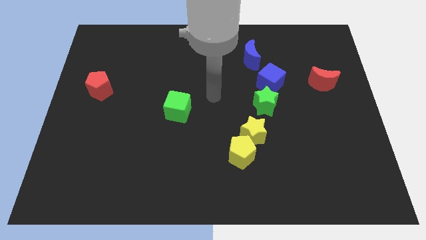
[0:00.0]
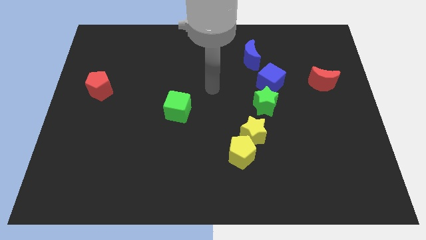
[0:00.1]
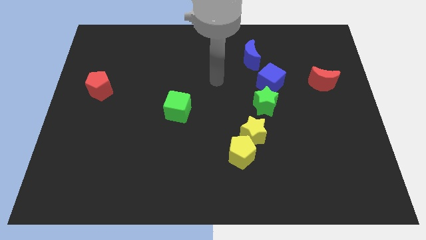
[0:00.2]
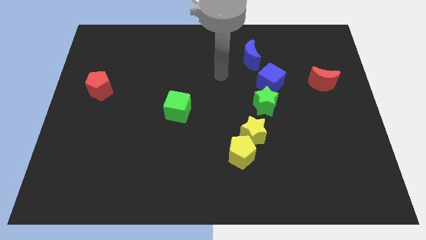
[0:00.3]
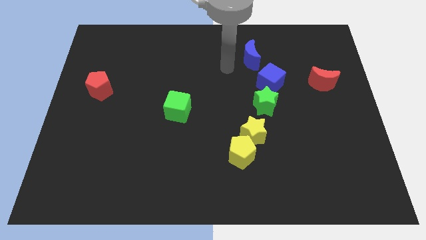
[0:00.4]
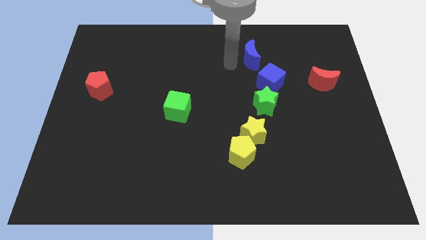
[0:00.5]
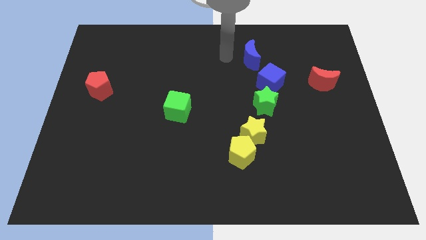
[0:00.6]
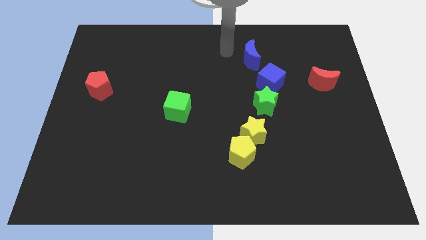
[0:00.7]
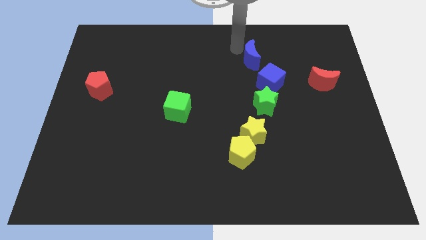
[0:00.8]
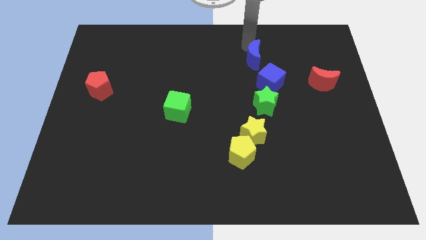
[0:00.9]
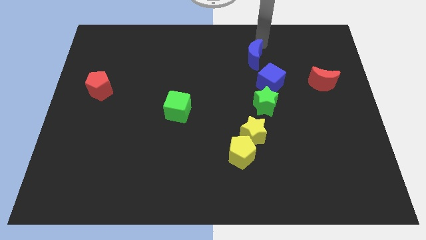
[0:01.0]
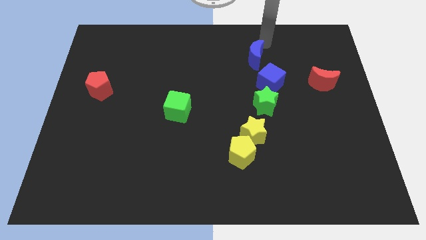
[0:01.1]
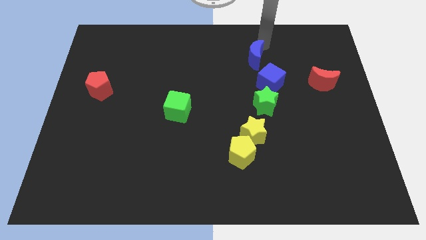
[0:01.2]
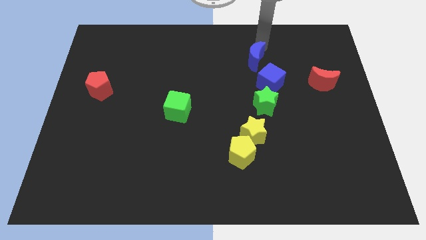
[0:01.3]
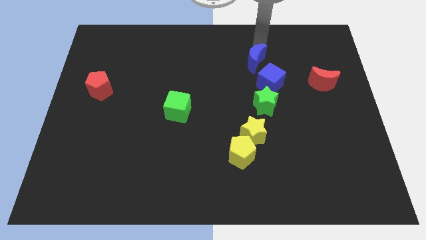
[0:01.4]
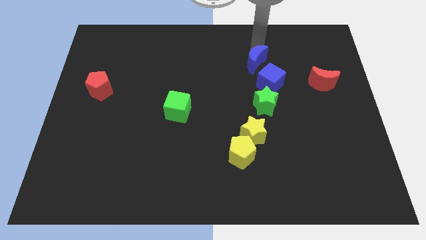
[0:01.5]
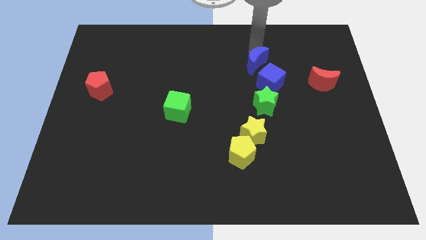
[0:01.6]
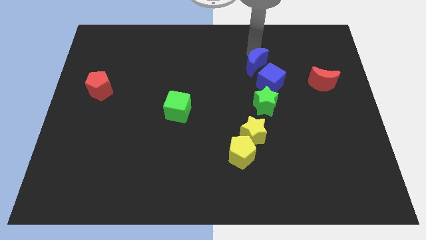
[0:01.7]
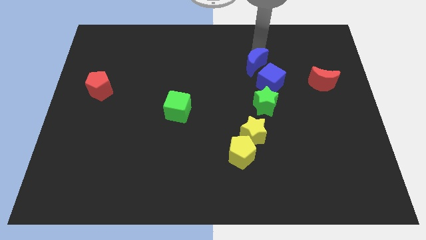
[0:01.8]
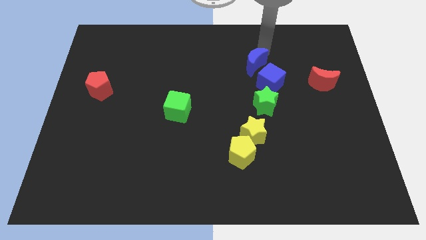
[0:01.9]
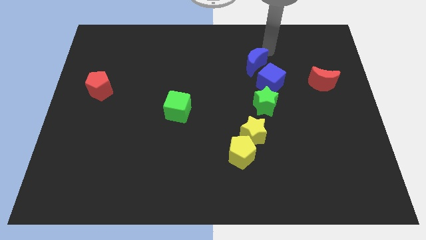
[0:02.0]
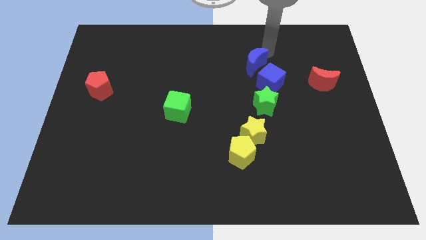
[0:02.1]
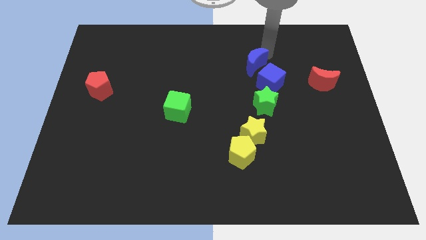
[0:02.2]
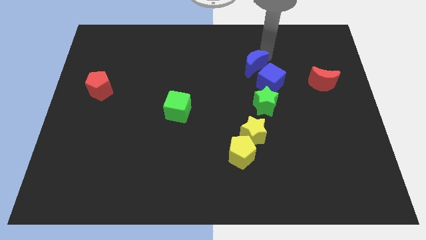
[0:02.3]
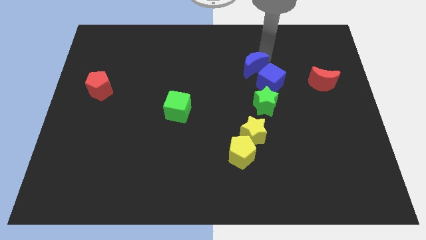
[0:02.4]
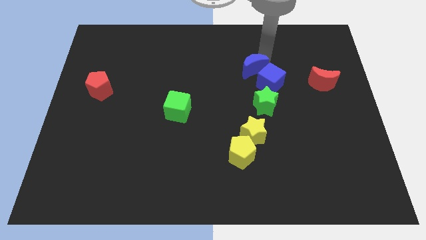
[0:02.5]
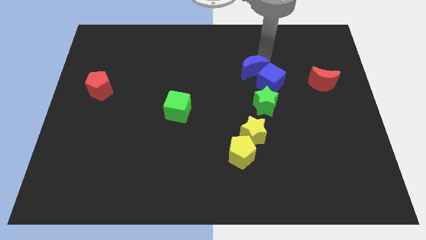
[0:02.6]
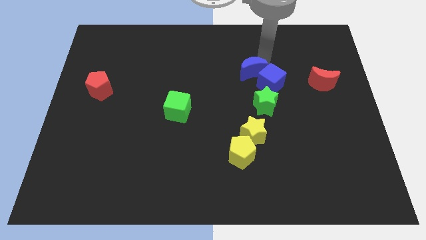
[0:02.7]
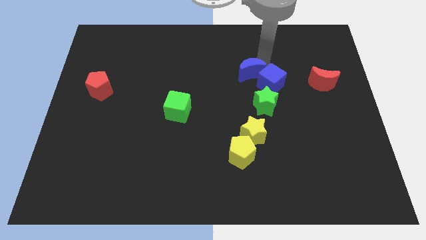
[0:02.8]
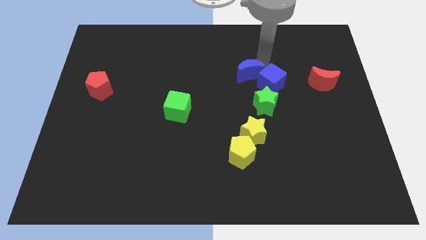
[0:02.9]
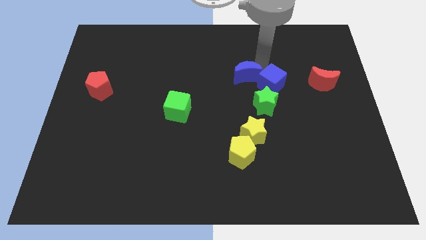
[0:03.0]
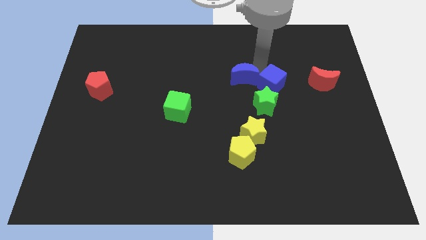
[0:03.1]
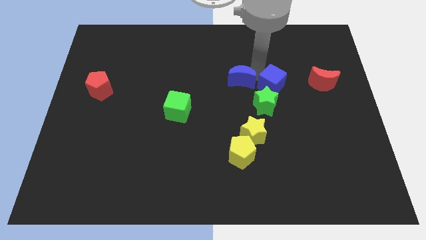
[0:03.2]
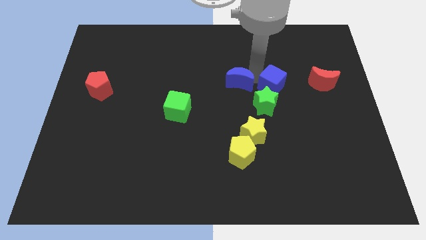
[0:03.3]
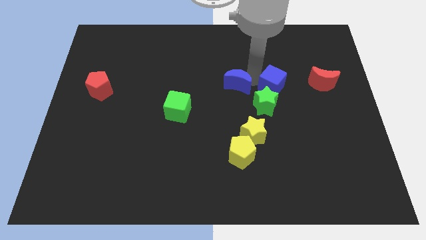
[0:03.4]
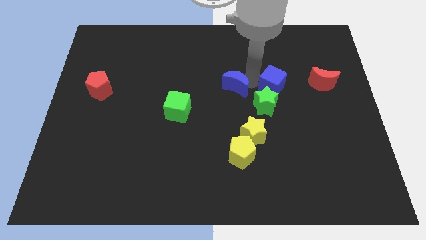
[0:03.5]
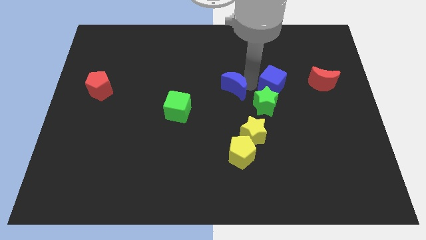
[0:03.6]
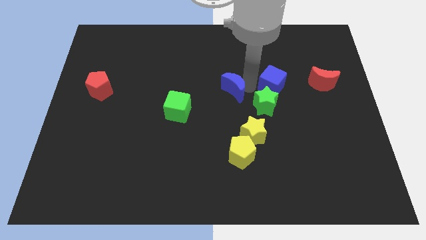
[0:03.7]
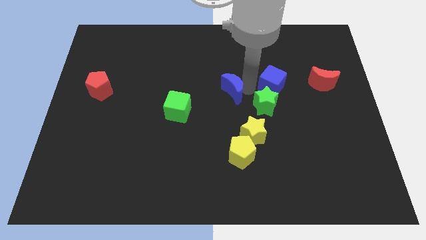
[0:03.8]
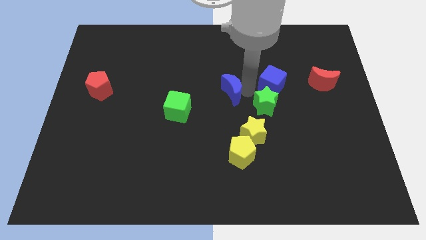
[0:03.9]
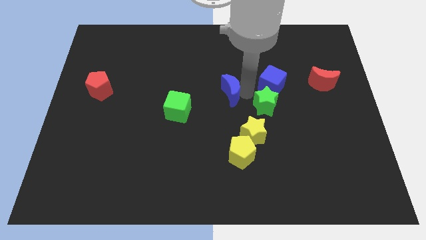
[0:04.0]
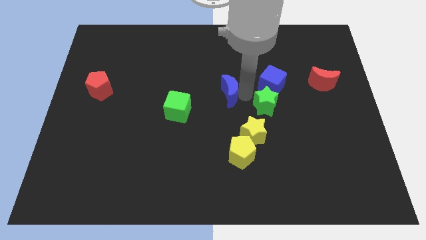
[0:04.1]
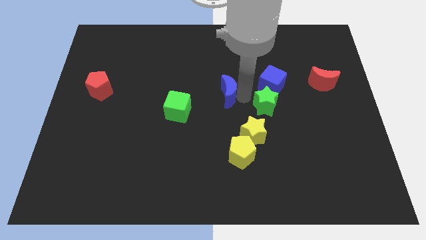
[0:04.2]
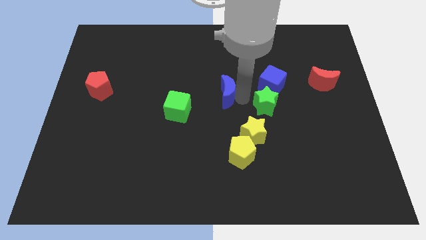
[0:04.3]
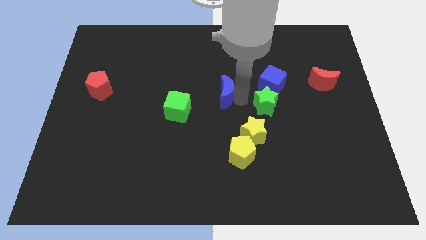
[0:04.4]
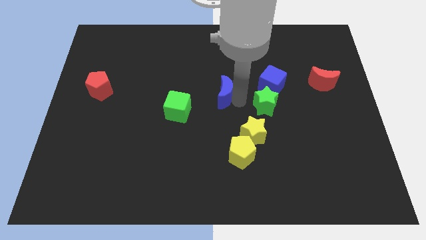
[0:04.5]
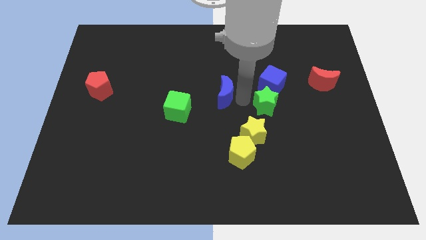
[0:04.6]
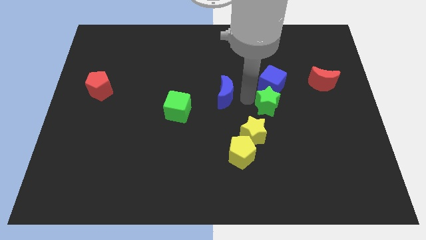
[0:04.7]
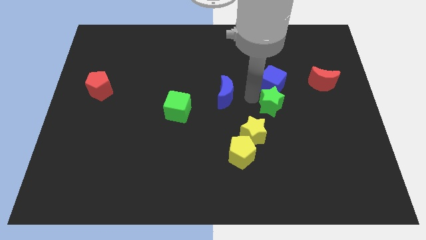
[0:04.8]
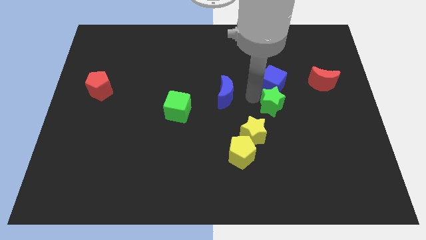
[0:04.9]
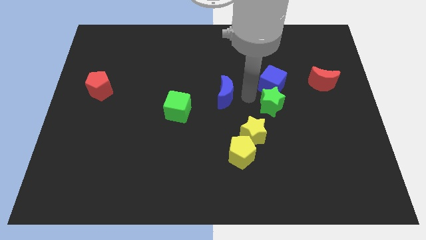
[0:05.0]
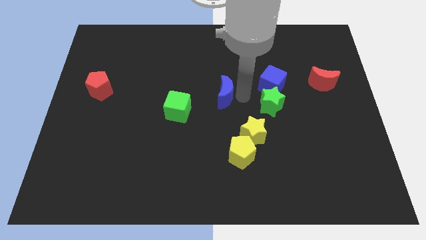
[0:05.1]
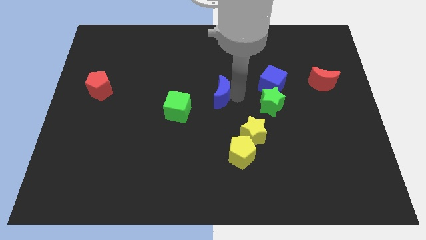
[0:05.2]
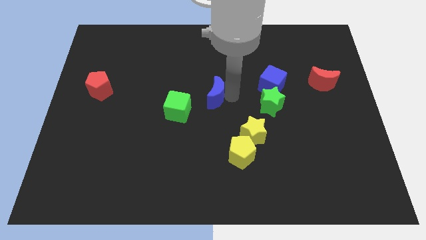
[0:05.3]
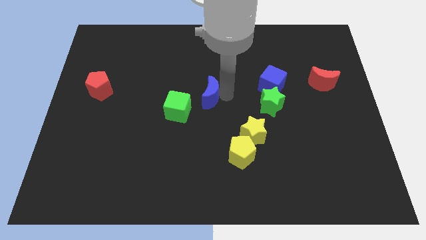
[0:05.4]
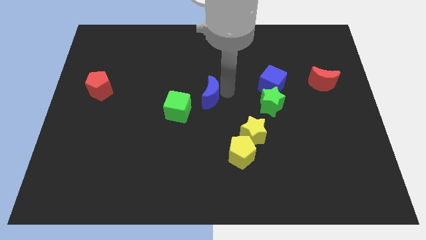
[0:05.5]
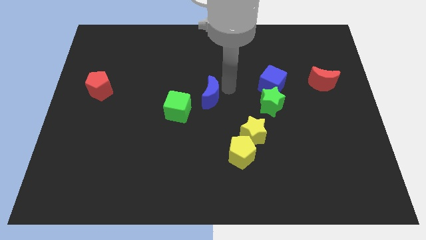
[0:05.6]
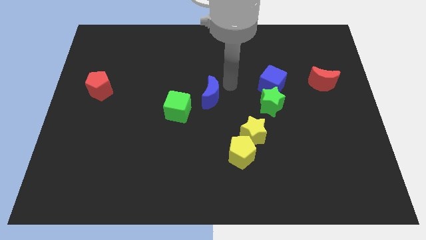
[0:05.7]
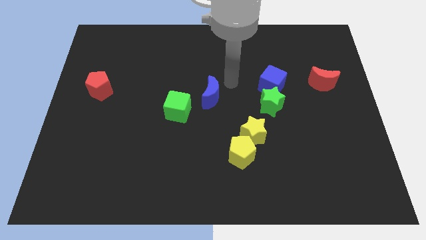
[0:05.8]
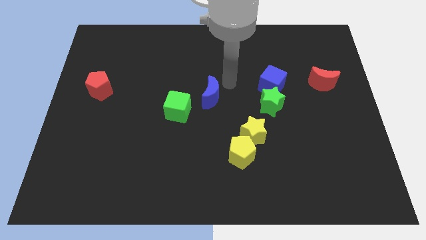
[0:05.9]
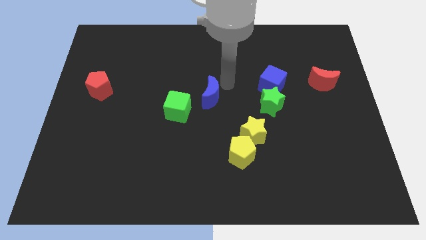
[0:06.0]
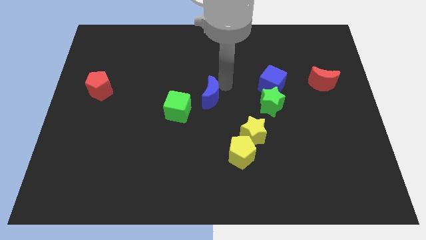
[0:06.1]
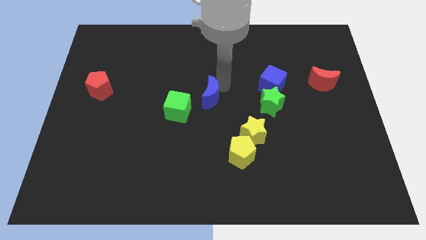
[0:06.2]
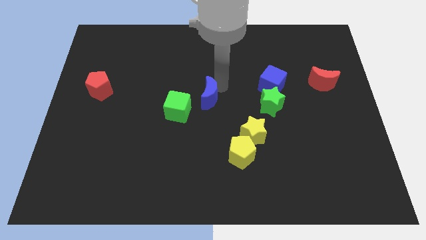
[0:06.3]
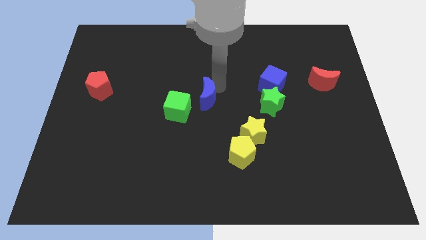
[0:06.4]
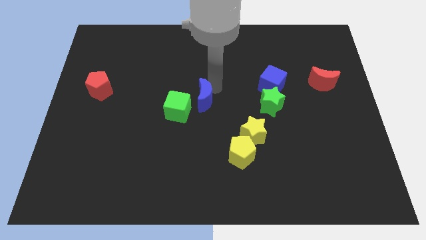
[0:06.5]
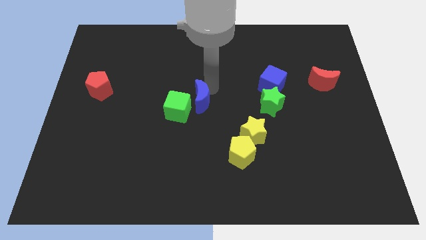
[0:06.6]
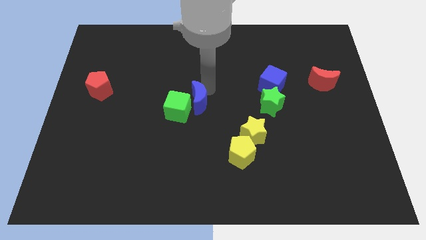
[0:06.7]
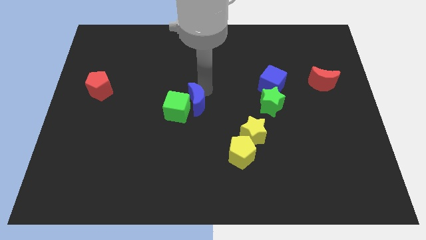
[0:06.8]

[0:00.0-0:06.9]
slide the blue moon diagonally down and to the left

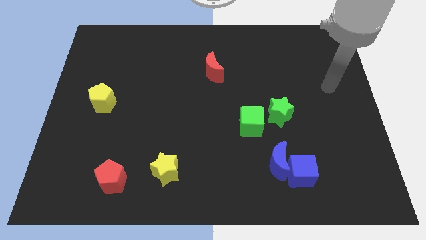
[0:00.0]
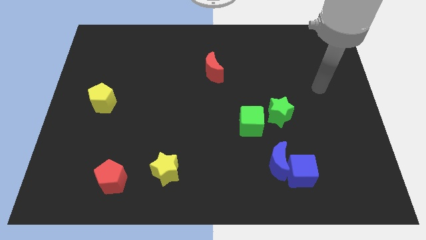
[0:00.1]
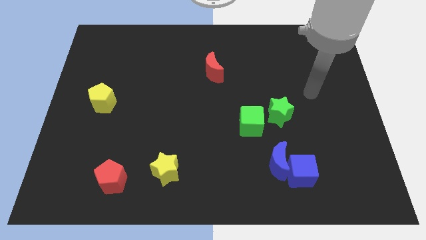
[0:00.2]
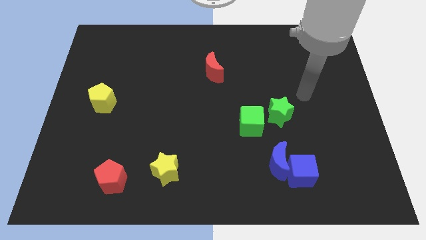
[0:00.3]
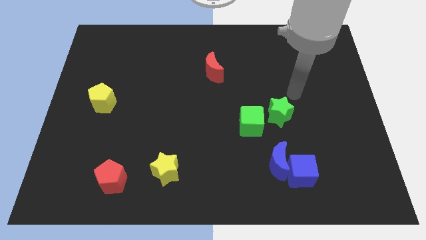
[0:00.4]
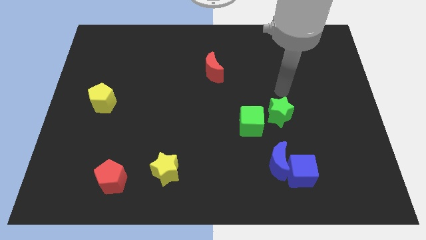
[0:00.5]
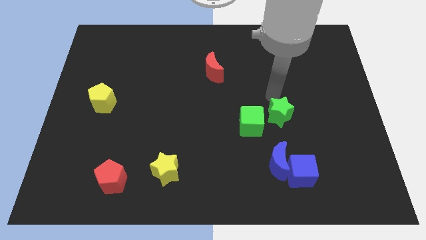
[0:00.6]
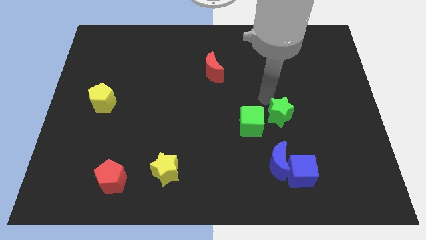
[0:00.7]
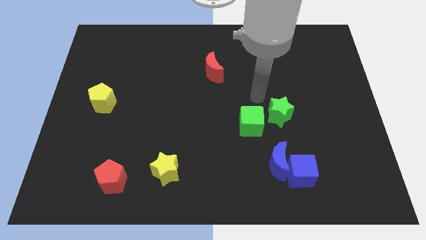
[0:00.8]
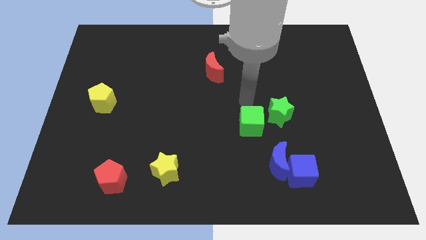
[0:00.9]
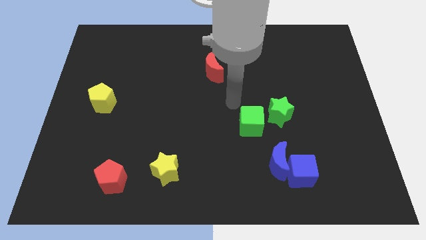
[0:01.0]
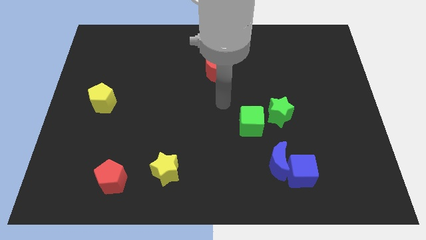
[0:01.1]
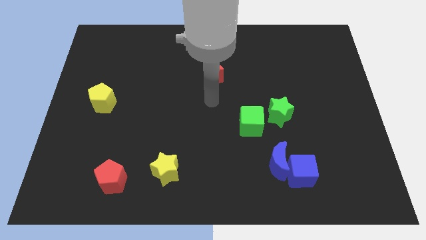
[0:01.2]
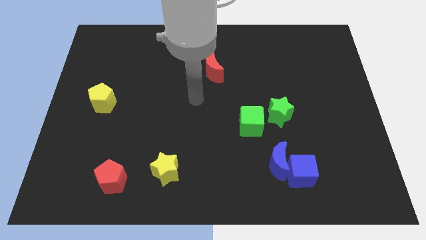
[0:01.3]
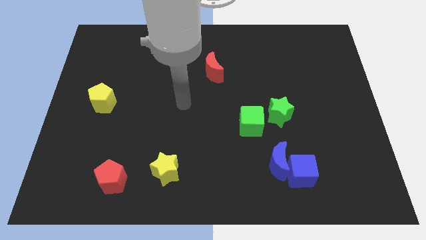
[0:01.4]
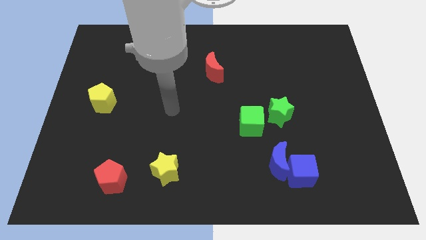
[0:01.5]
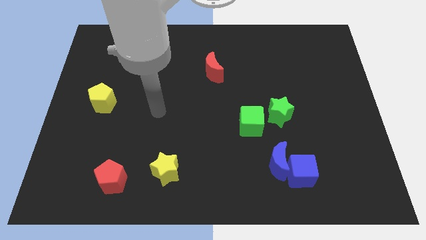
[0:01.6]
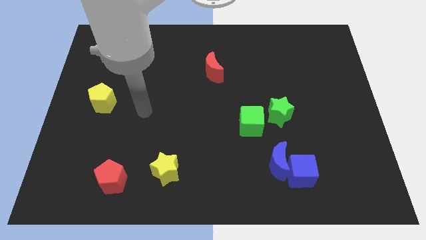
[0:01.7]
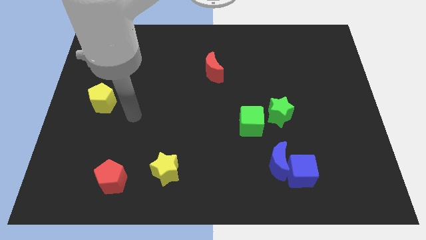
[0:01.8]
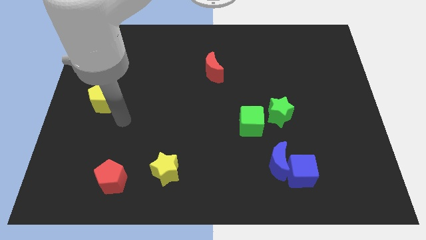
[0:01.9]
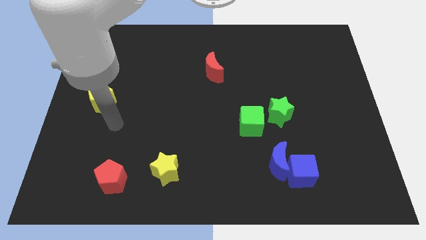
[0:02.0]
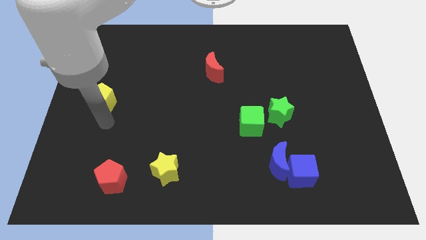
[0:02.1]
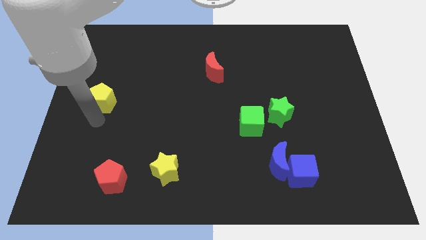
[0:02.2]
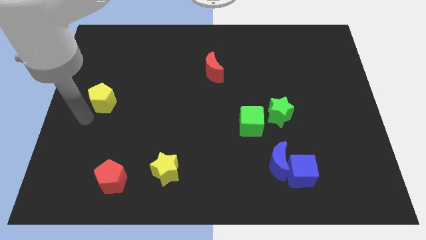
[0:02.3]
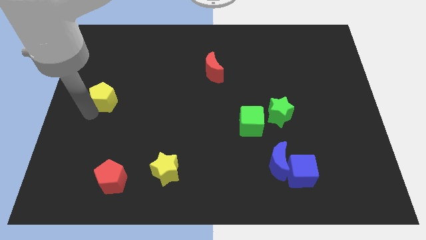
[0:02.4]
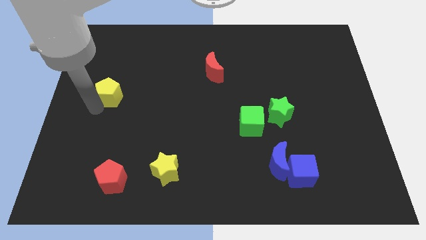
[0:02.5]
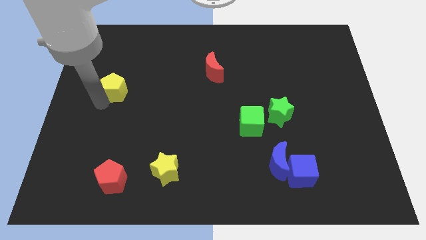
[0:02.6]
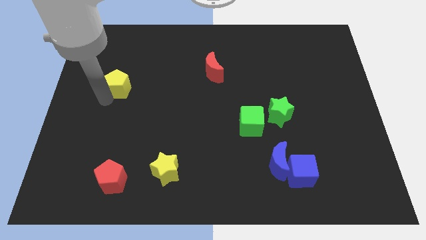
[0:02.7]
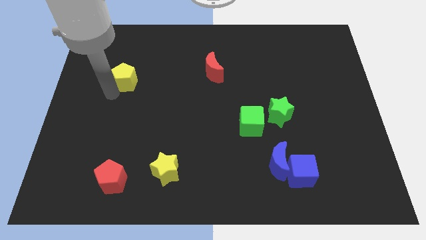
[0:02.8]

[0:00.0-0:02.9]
move the yellow pentagon upwards and right diagonally a bit
